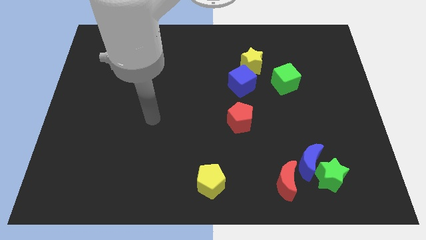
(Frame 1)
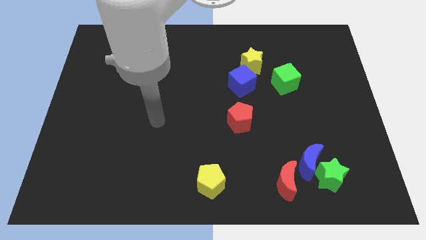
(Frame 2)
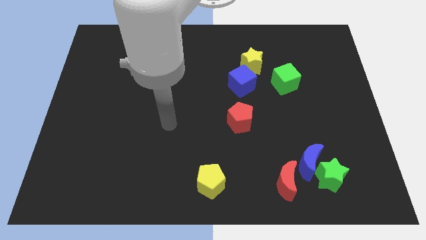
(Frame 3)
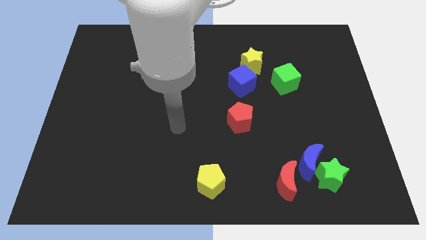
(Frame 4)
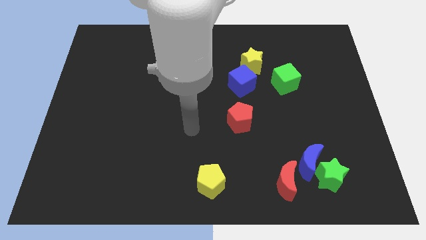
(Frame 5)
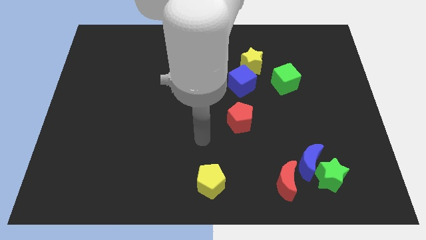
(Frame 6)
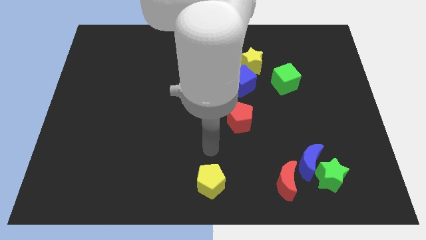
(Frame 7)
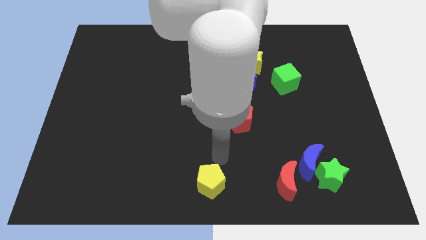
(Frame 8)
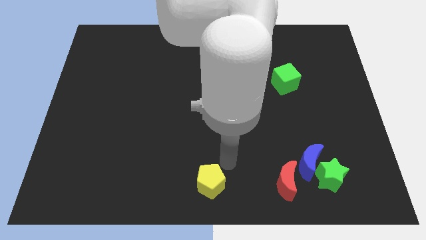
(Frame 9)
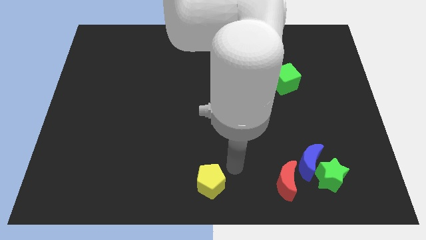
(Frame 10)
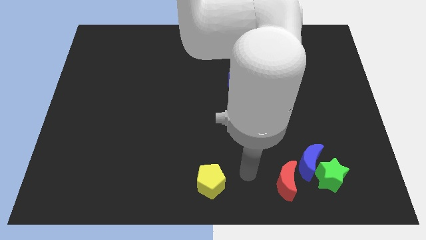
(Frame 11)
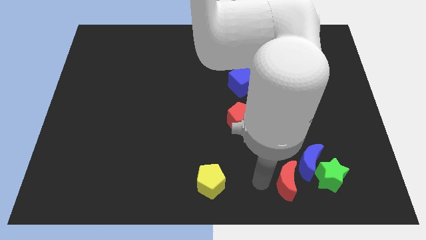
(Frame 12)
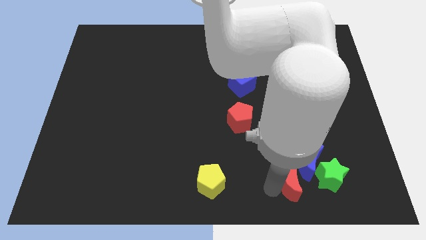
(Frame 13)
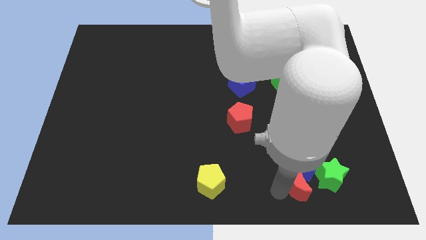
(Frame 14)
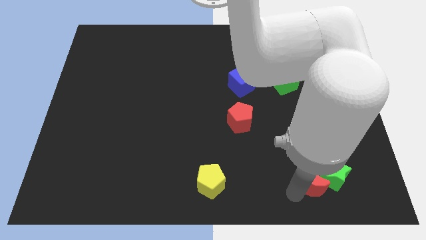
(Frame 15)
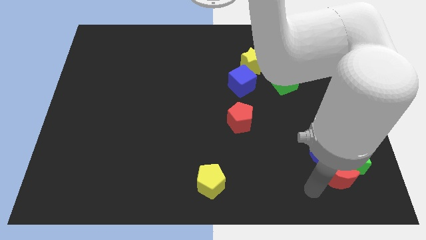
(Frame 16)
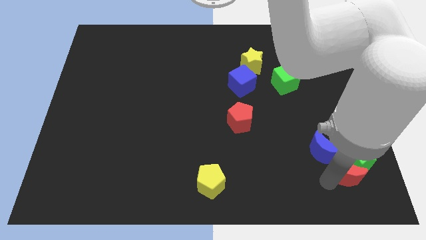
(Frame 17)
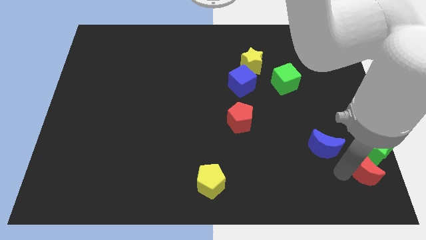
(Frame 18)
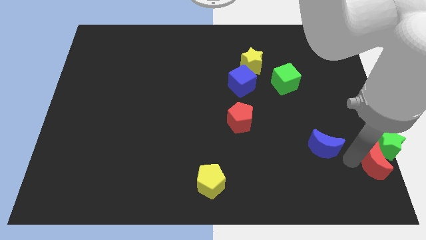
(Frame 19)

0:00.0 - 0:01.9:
move the blue moon away from the green star and red moon

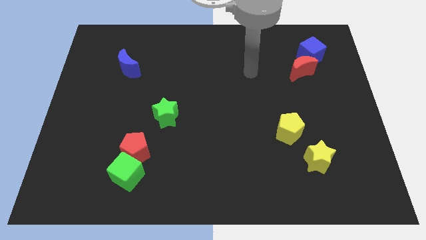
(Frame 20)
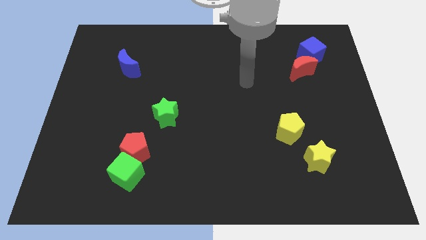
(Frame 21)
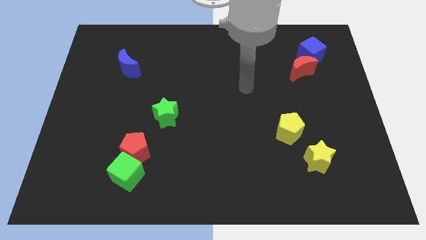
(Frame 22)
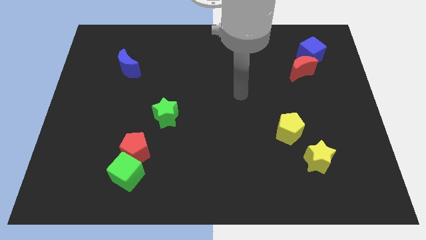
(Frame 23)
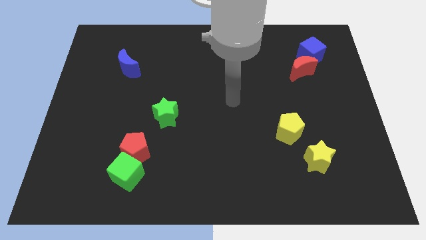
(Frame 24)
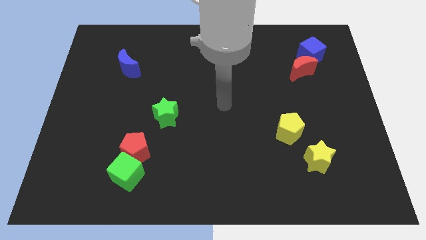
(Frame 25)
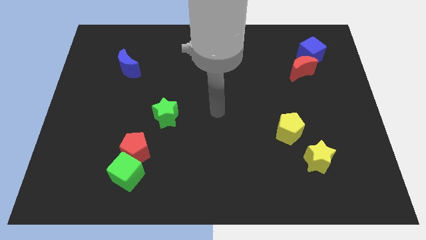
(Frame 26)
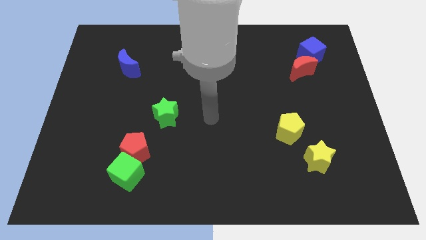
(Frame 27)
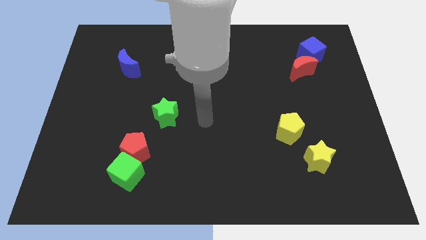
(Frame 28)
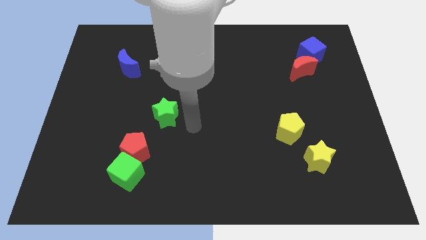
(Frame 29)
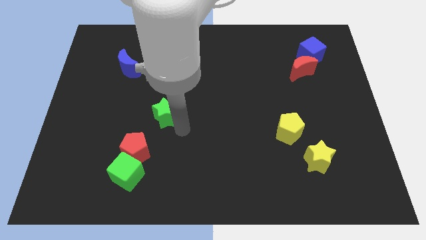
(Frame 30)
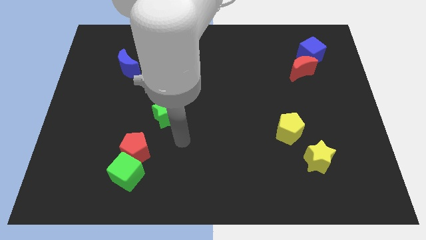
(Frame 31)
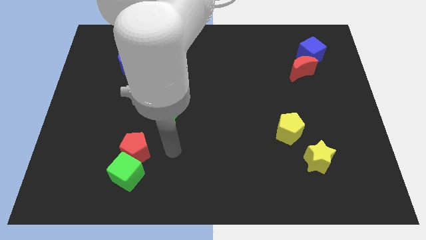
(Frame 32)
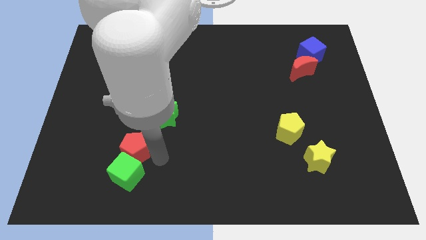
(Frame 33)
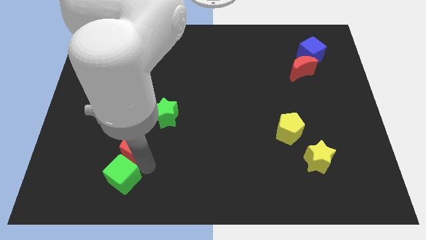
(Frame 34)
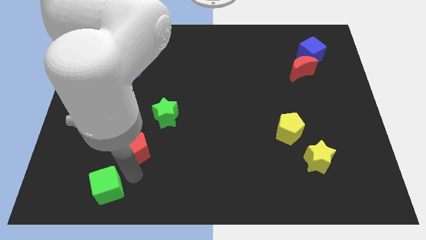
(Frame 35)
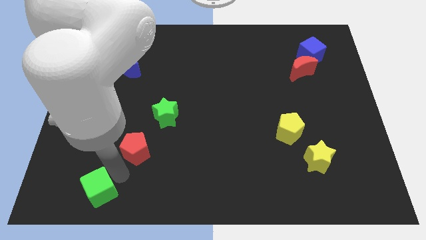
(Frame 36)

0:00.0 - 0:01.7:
pull the red pentagon apart from the green cube

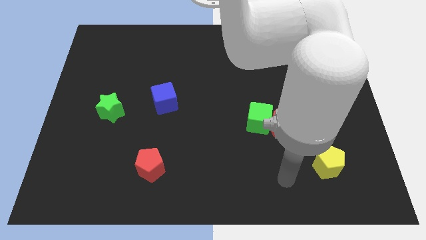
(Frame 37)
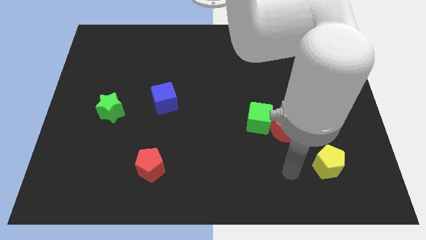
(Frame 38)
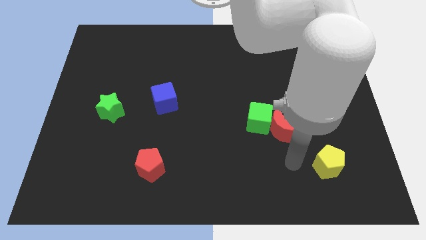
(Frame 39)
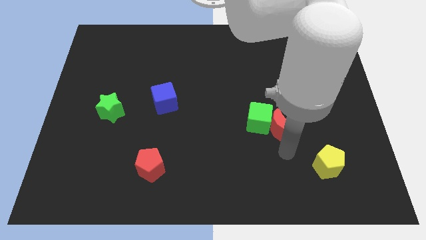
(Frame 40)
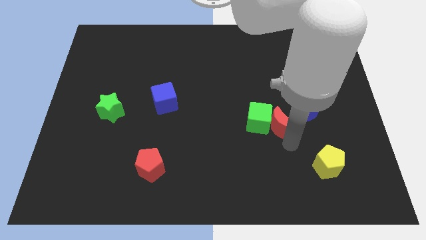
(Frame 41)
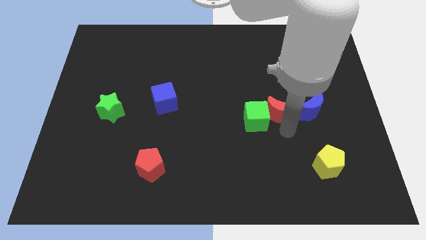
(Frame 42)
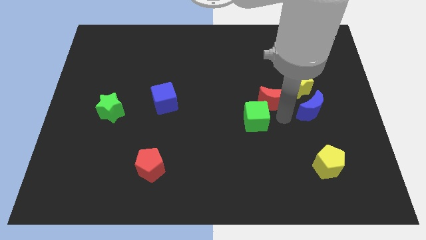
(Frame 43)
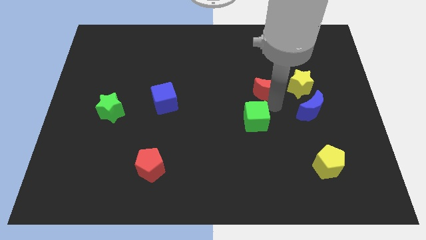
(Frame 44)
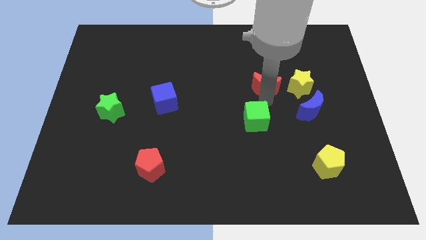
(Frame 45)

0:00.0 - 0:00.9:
separate the green cube from the red moon

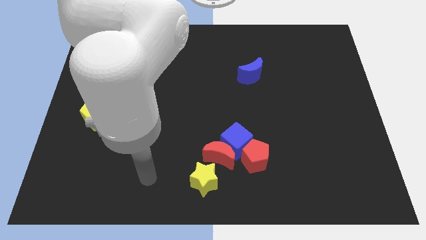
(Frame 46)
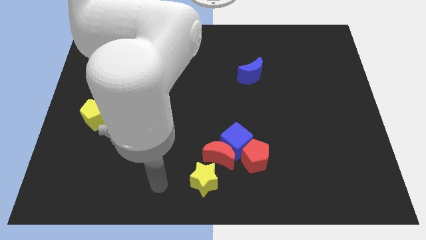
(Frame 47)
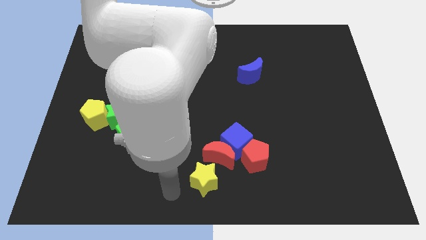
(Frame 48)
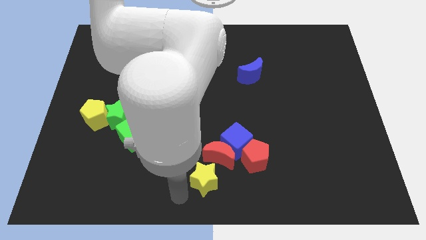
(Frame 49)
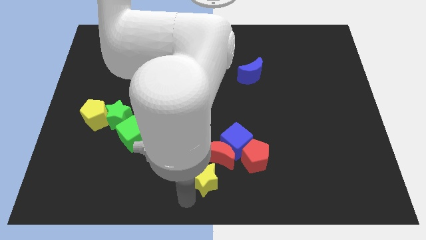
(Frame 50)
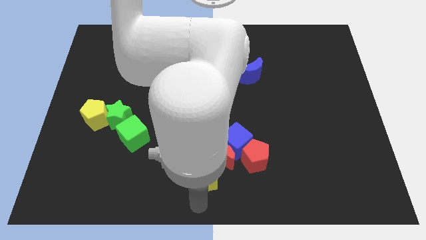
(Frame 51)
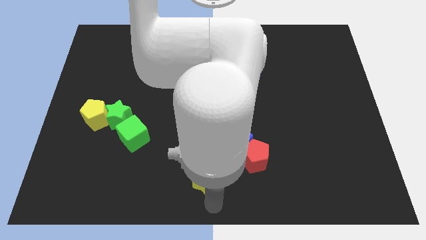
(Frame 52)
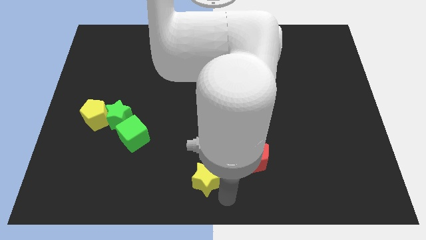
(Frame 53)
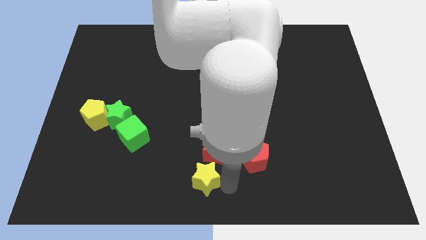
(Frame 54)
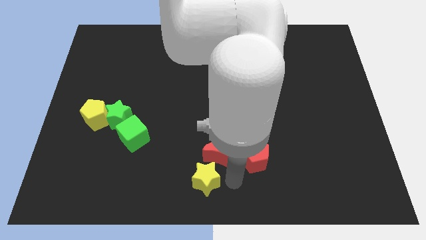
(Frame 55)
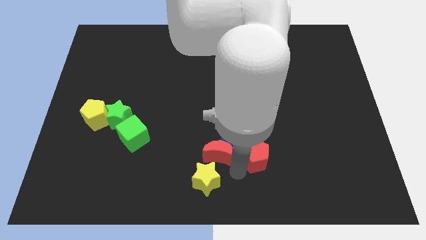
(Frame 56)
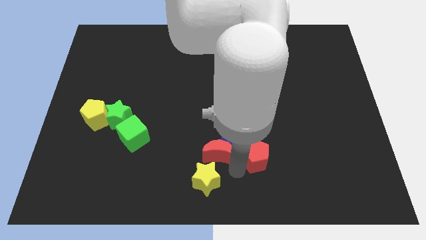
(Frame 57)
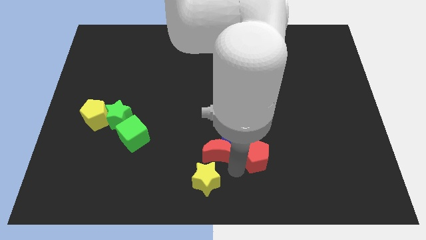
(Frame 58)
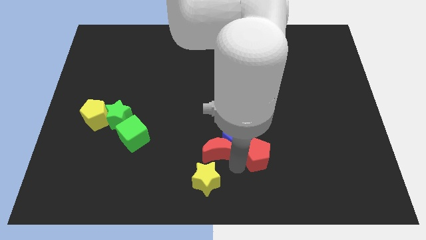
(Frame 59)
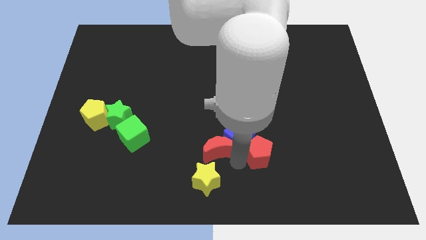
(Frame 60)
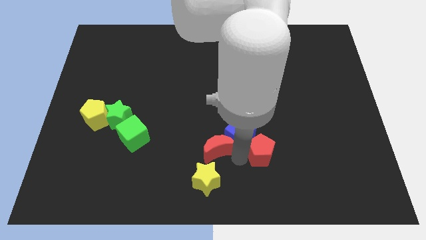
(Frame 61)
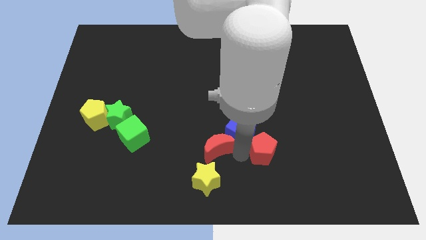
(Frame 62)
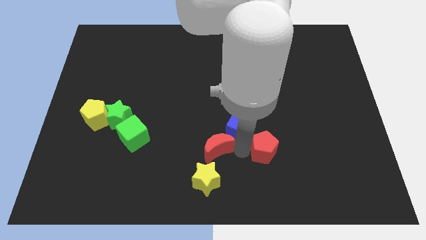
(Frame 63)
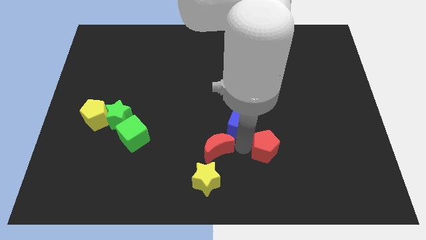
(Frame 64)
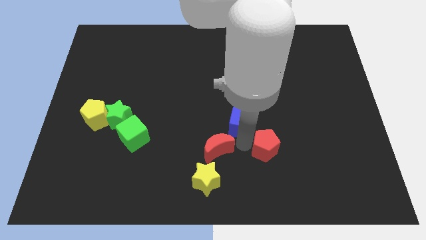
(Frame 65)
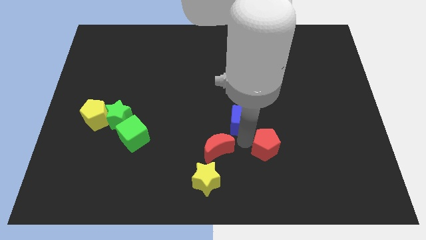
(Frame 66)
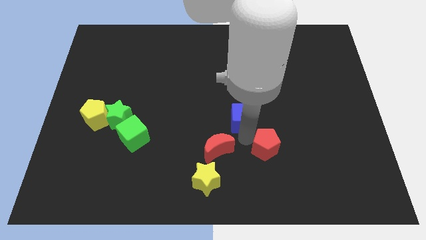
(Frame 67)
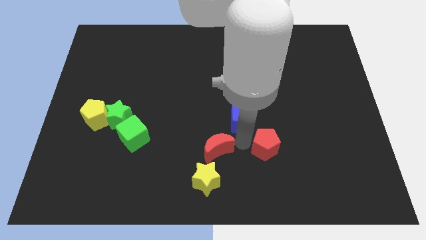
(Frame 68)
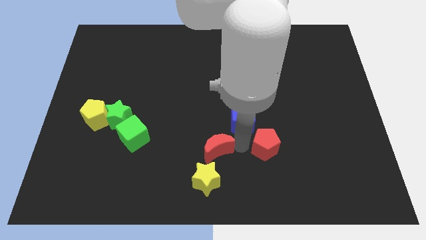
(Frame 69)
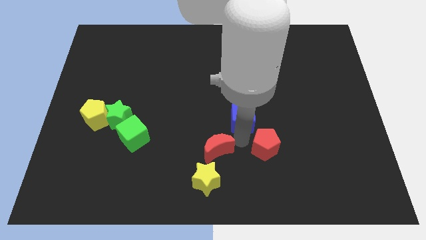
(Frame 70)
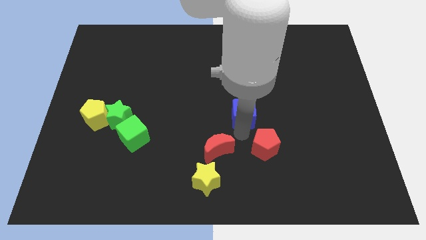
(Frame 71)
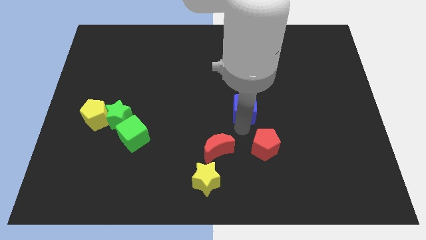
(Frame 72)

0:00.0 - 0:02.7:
separate the blue cube from the red moon and red pentagon

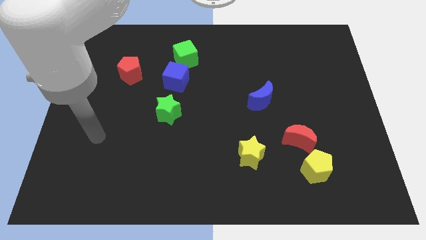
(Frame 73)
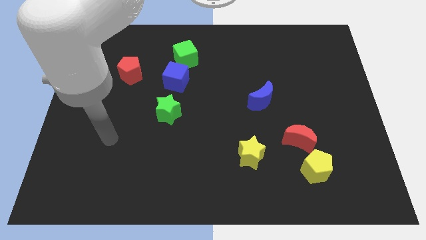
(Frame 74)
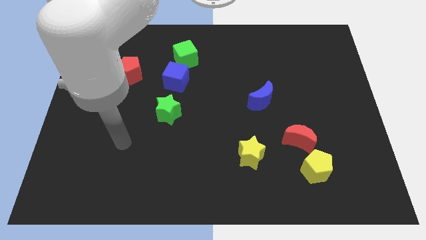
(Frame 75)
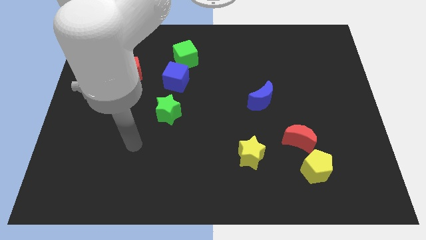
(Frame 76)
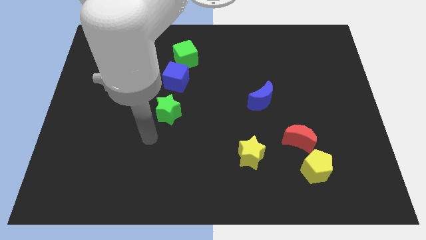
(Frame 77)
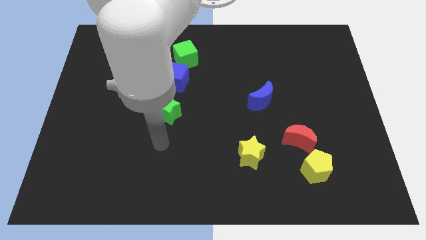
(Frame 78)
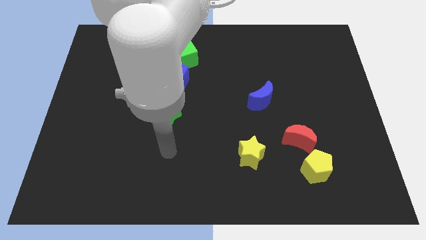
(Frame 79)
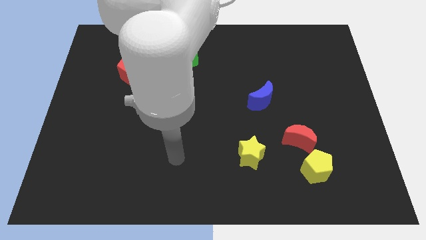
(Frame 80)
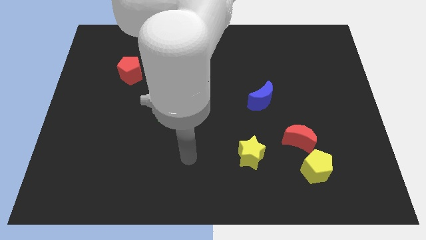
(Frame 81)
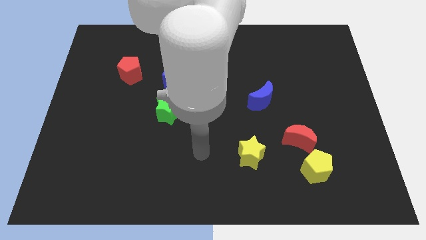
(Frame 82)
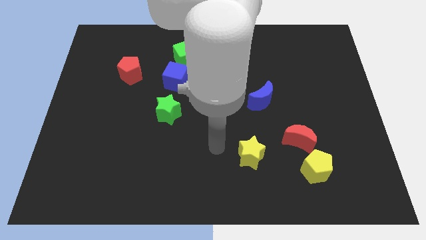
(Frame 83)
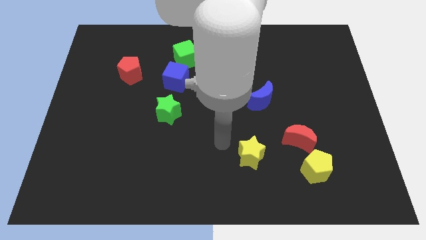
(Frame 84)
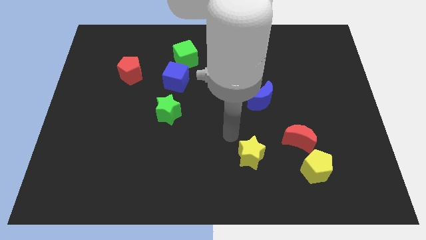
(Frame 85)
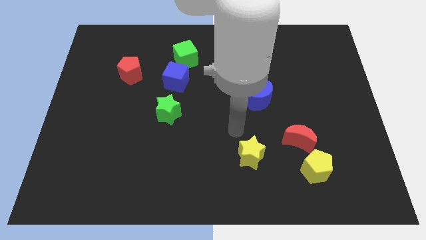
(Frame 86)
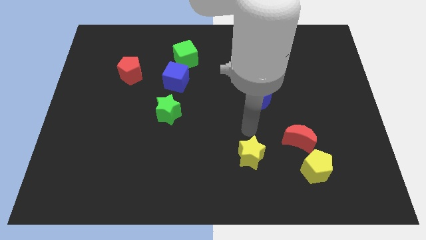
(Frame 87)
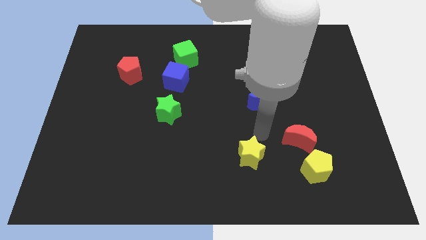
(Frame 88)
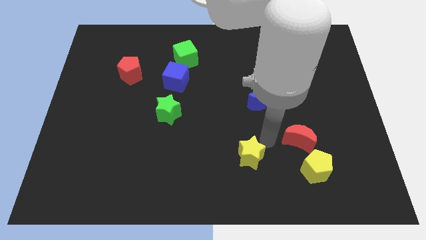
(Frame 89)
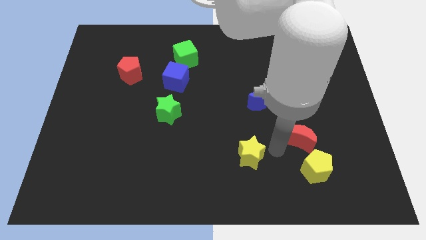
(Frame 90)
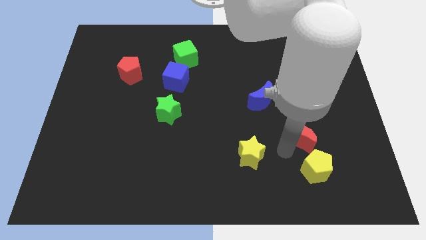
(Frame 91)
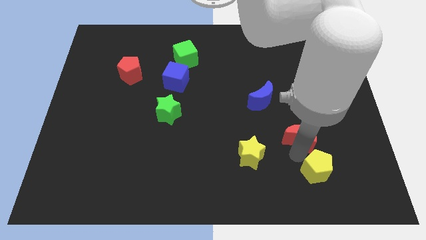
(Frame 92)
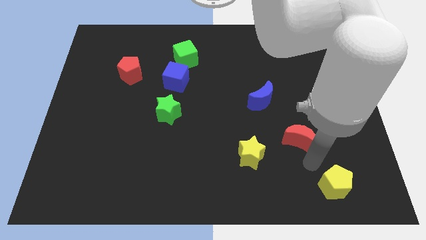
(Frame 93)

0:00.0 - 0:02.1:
separate the red moon from the yellow pentagon
